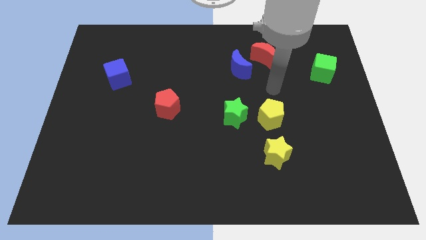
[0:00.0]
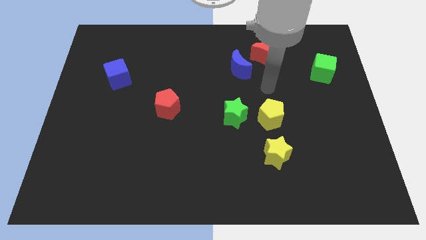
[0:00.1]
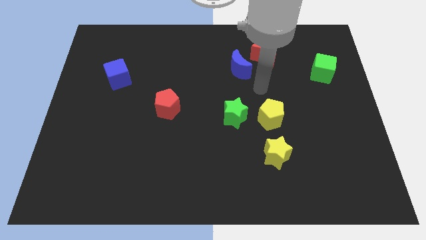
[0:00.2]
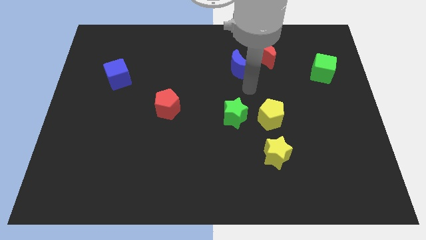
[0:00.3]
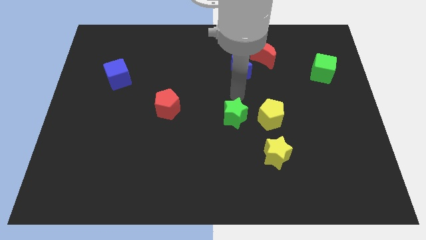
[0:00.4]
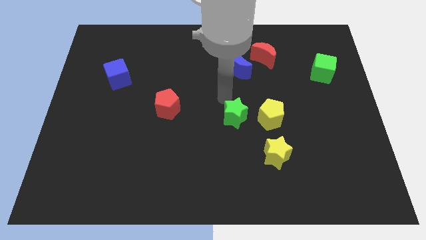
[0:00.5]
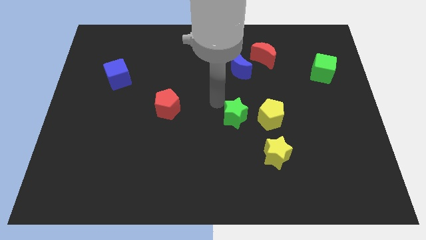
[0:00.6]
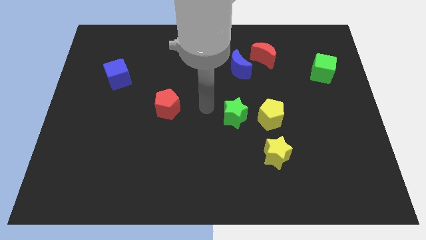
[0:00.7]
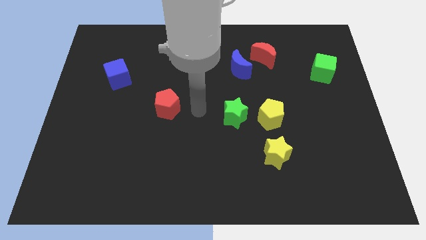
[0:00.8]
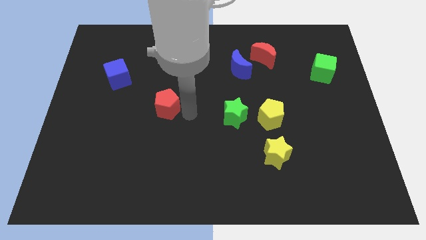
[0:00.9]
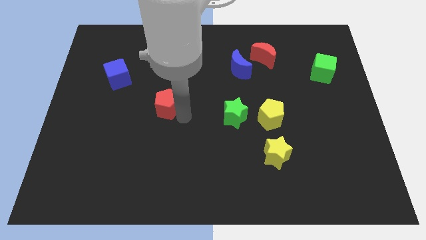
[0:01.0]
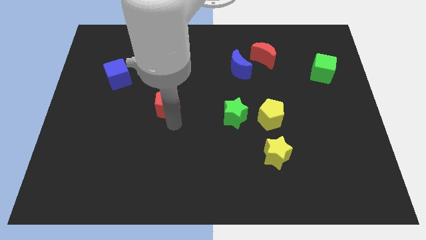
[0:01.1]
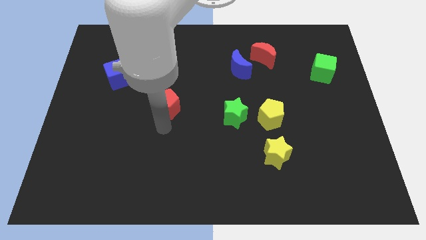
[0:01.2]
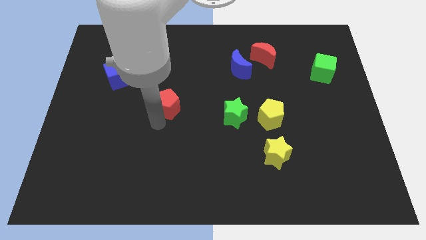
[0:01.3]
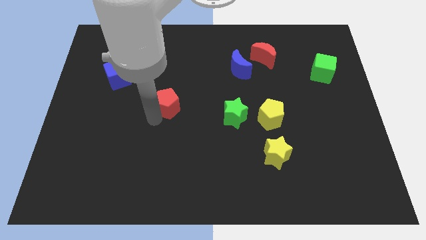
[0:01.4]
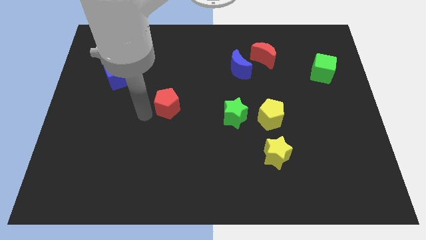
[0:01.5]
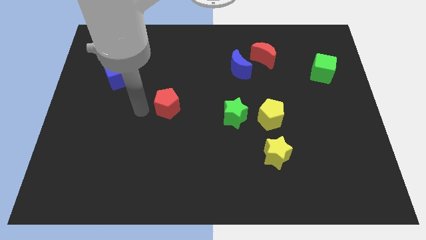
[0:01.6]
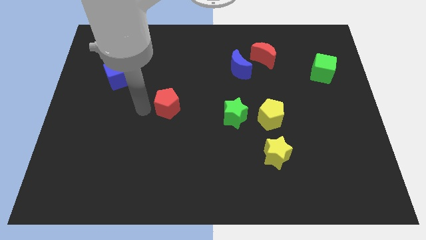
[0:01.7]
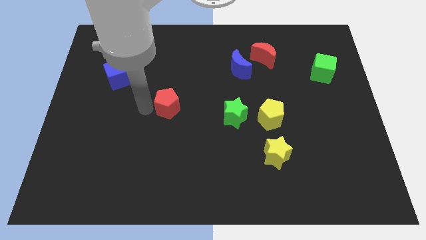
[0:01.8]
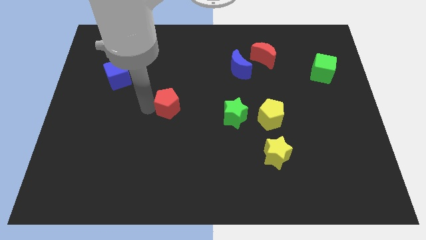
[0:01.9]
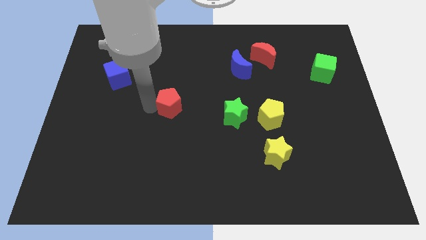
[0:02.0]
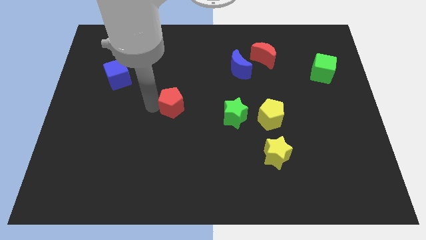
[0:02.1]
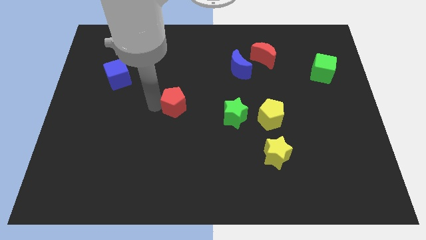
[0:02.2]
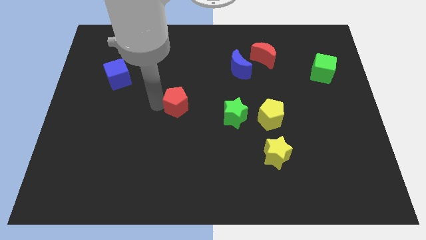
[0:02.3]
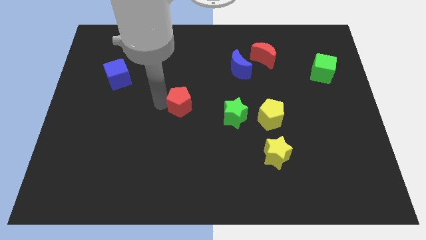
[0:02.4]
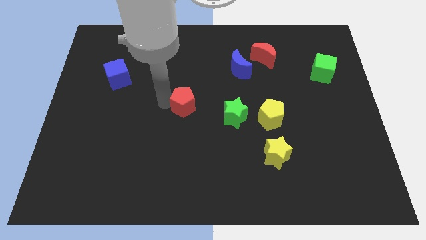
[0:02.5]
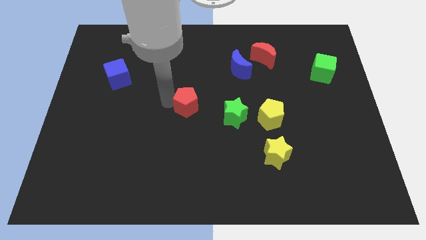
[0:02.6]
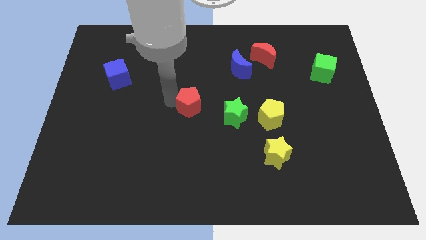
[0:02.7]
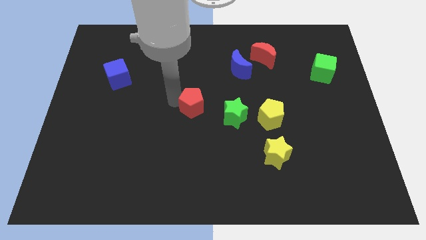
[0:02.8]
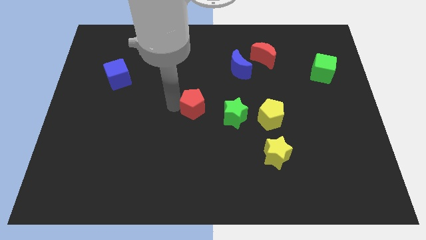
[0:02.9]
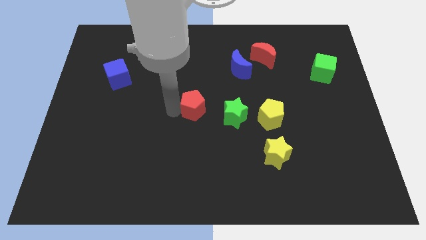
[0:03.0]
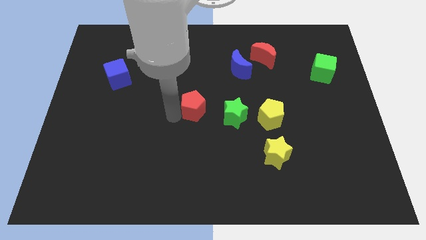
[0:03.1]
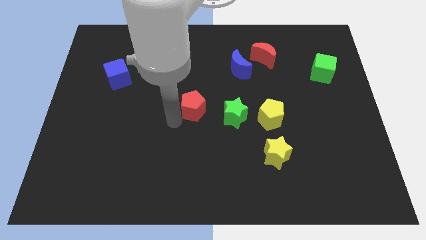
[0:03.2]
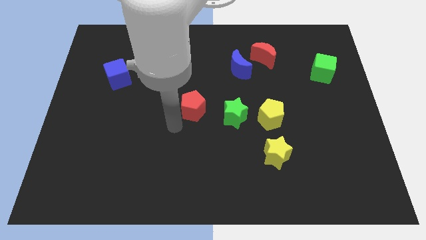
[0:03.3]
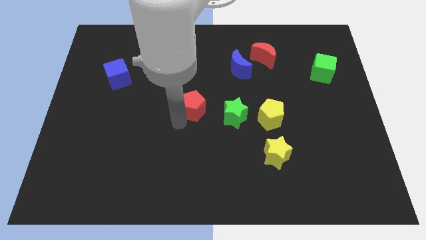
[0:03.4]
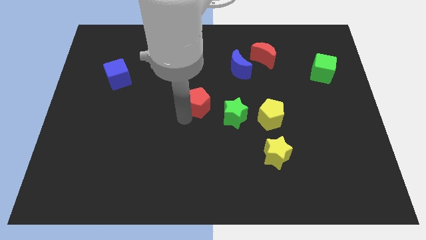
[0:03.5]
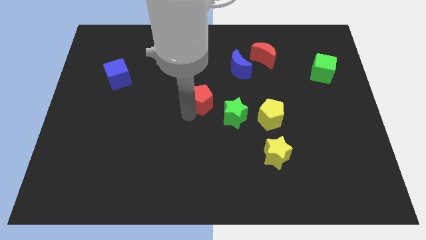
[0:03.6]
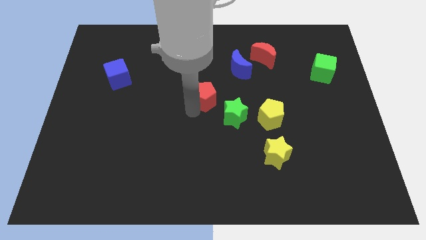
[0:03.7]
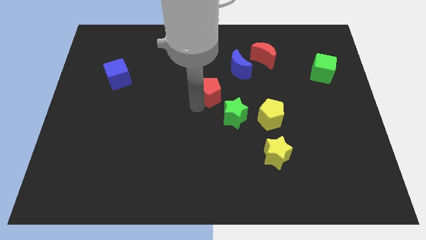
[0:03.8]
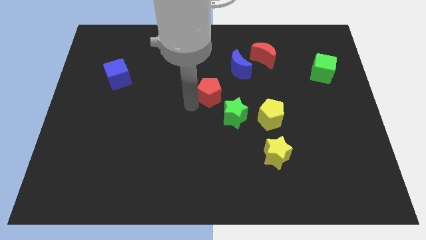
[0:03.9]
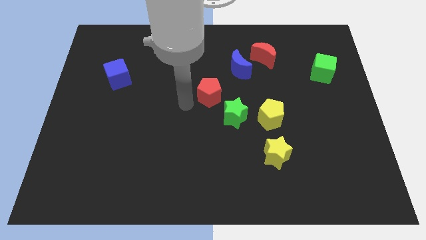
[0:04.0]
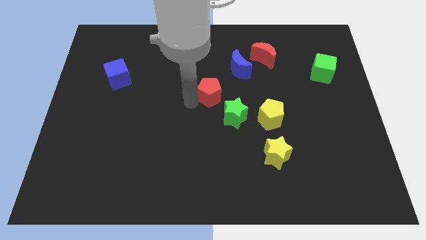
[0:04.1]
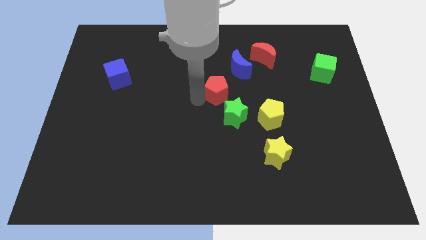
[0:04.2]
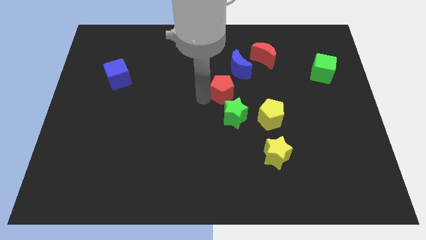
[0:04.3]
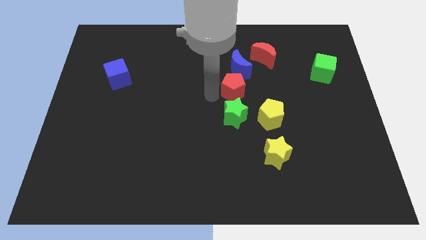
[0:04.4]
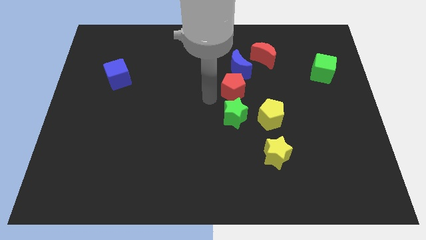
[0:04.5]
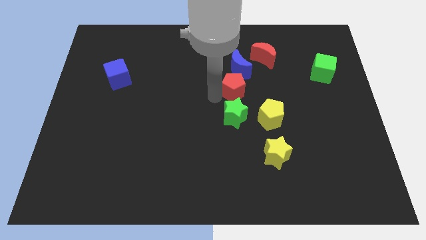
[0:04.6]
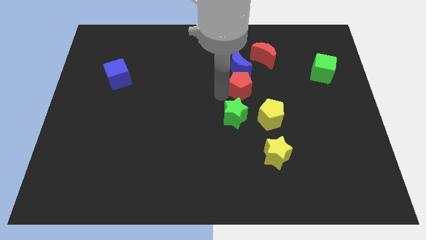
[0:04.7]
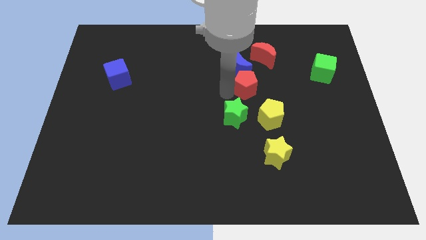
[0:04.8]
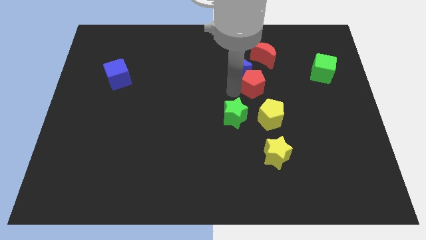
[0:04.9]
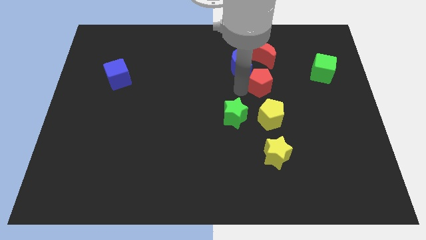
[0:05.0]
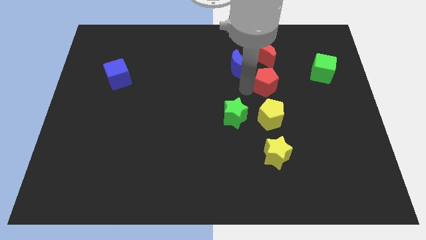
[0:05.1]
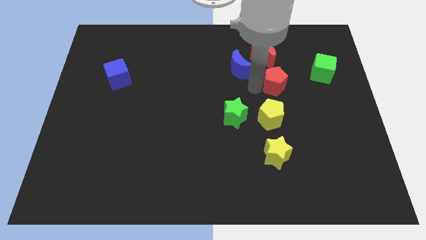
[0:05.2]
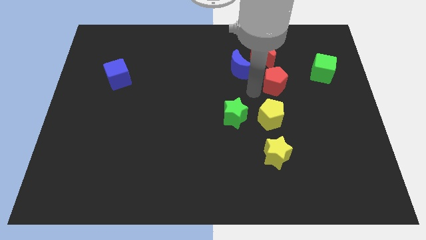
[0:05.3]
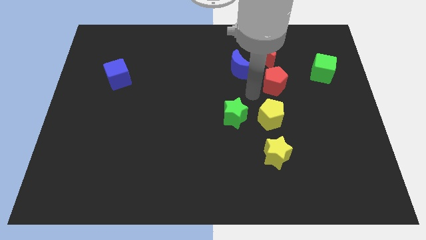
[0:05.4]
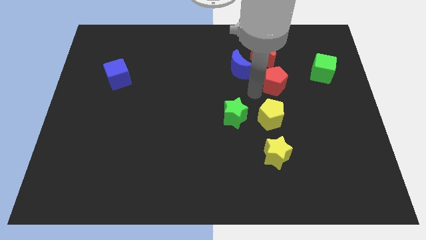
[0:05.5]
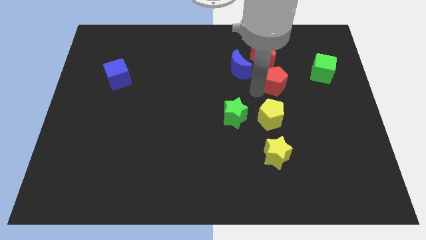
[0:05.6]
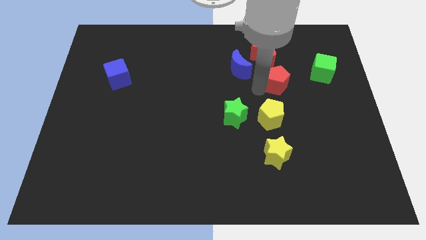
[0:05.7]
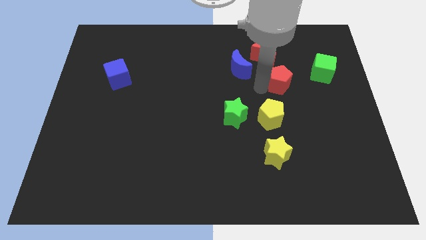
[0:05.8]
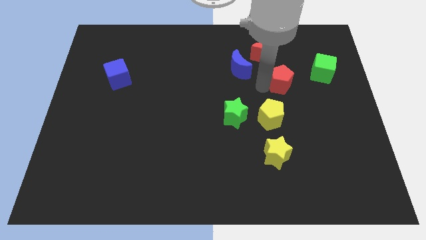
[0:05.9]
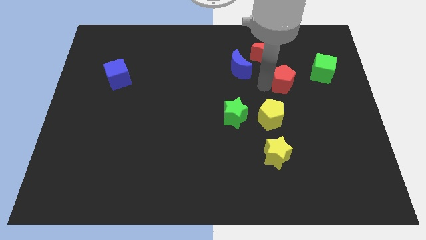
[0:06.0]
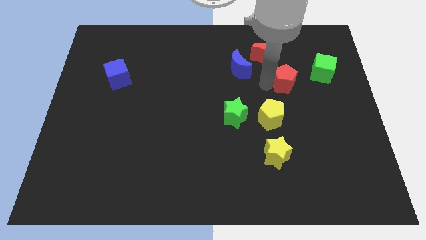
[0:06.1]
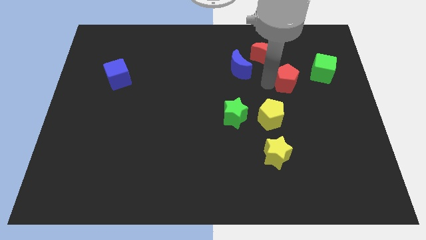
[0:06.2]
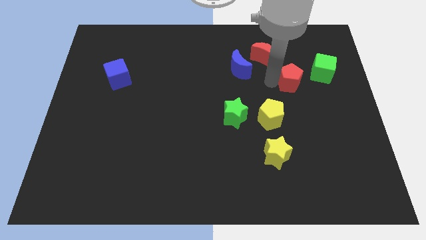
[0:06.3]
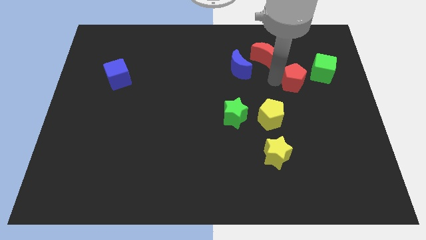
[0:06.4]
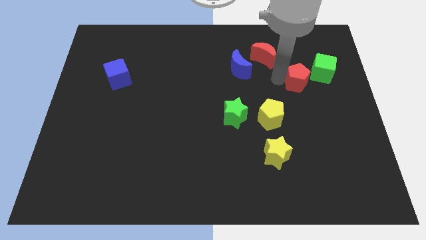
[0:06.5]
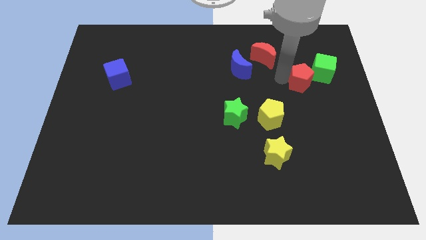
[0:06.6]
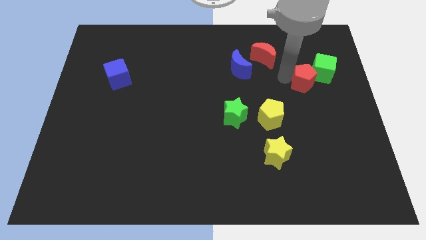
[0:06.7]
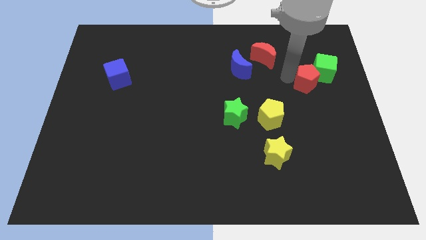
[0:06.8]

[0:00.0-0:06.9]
put the red pentagon to the green cube
